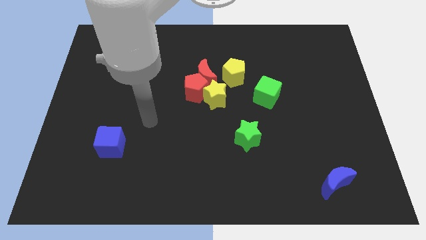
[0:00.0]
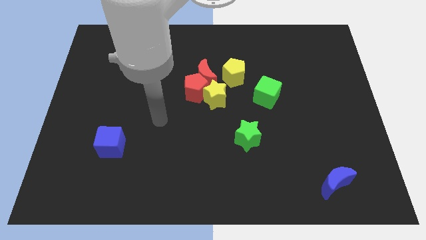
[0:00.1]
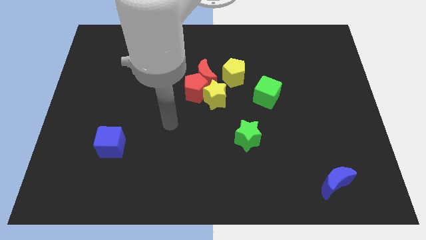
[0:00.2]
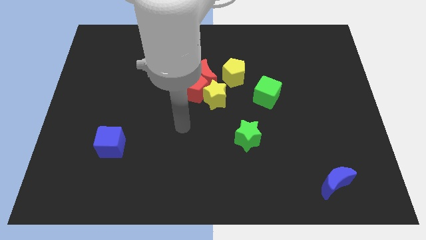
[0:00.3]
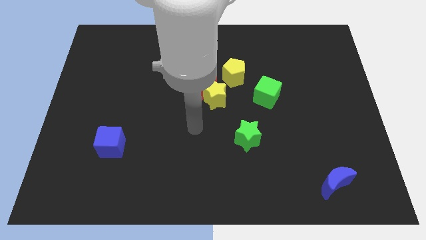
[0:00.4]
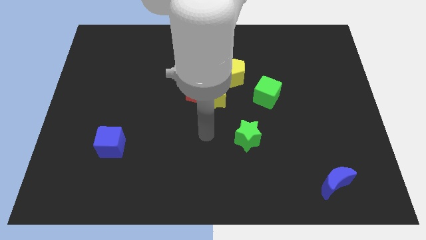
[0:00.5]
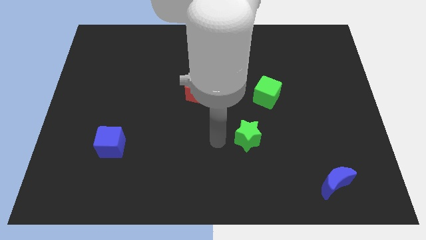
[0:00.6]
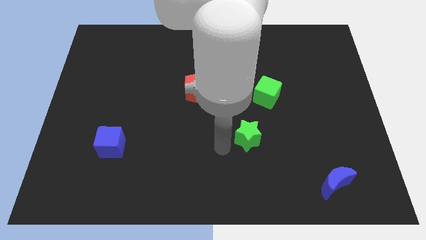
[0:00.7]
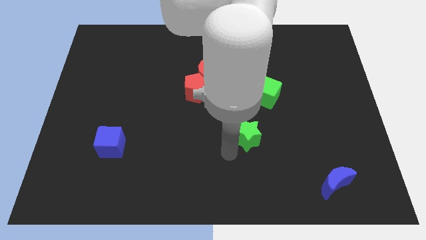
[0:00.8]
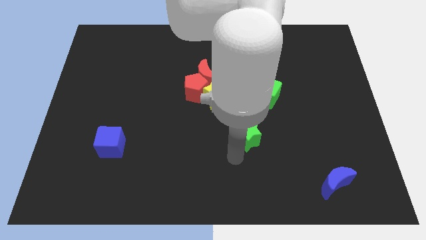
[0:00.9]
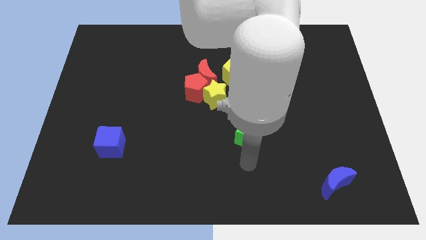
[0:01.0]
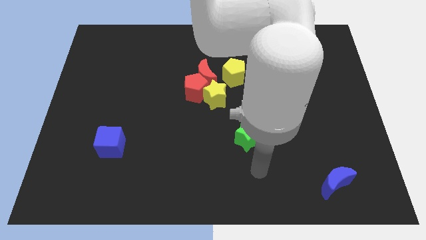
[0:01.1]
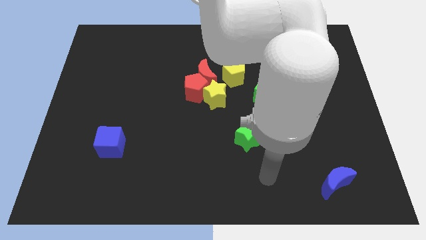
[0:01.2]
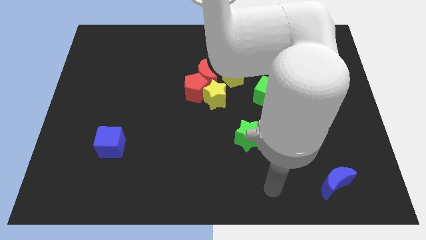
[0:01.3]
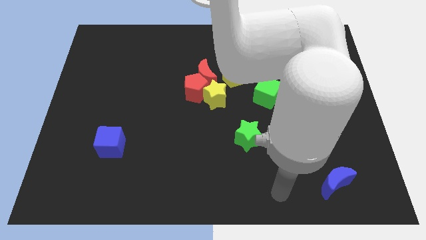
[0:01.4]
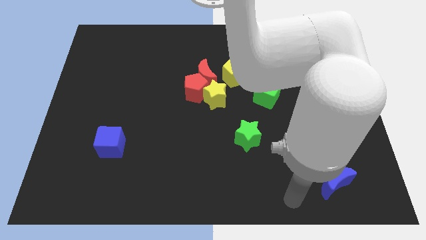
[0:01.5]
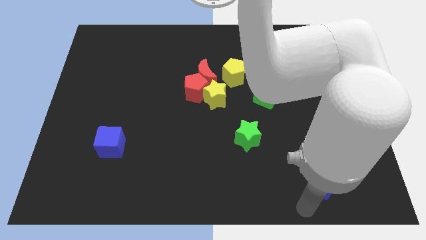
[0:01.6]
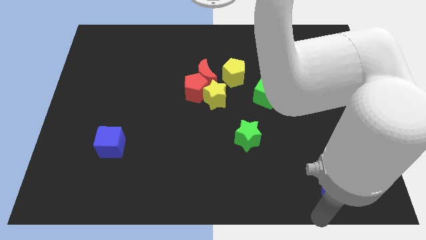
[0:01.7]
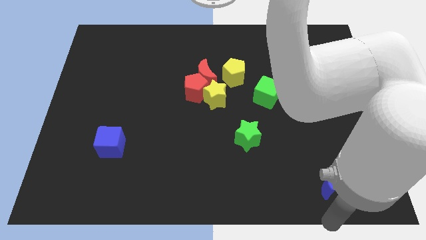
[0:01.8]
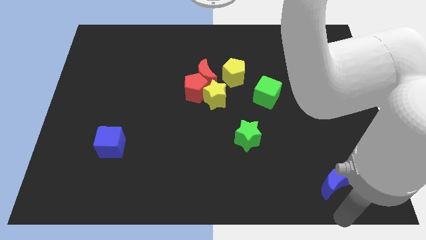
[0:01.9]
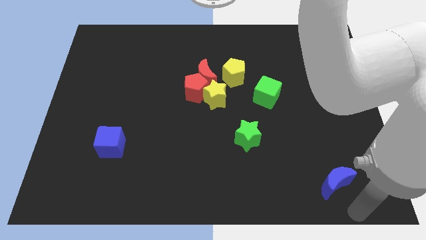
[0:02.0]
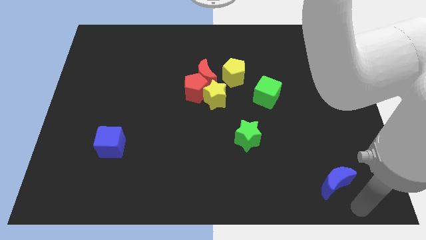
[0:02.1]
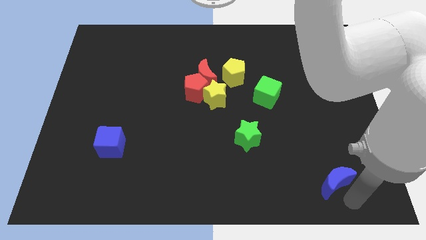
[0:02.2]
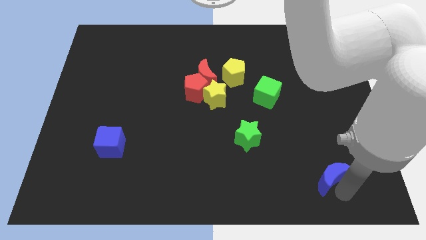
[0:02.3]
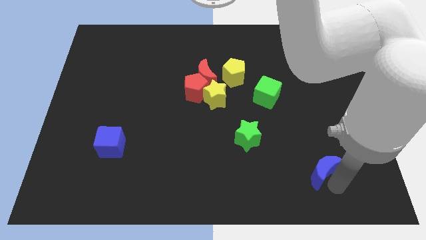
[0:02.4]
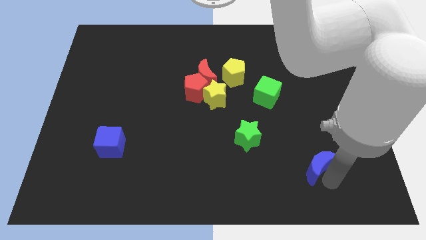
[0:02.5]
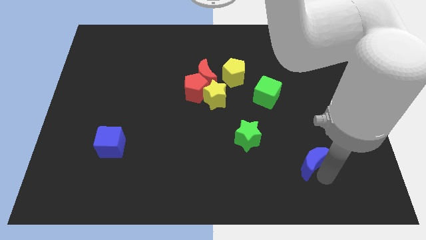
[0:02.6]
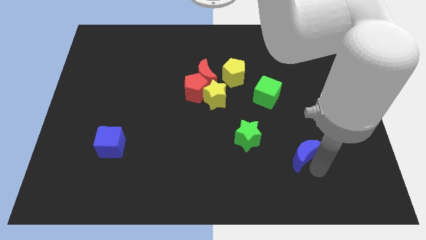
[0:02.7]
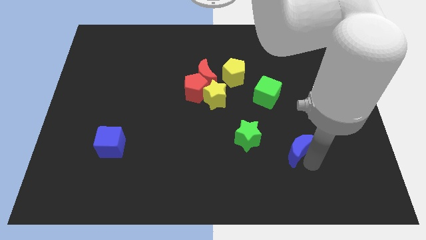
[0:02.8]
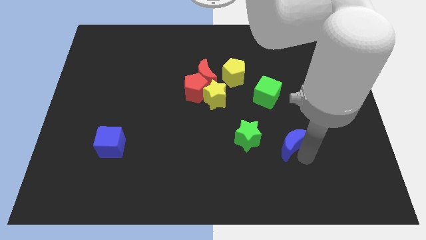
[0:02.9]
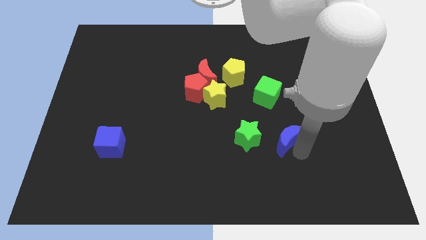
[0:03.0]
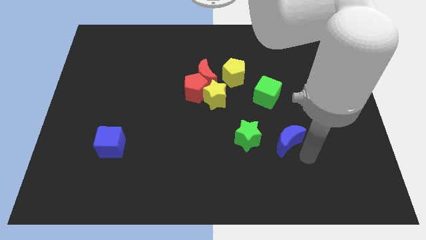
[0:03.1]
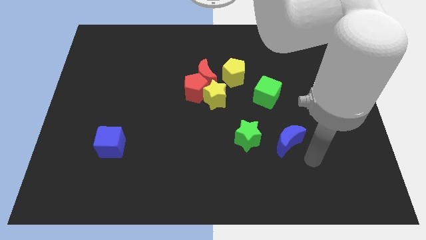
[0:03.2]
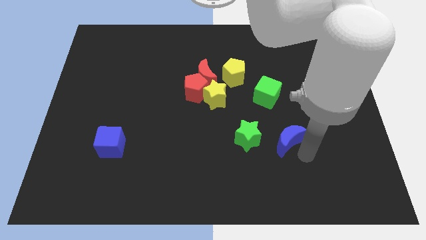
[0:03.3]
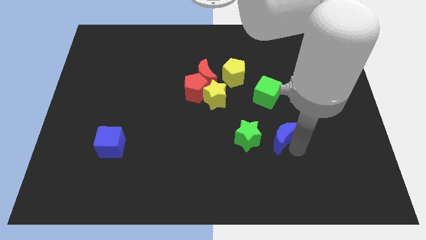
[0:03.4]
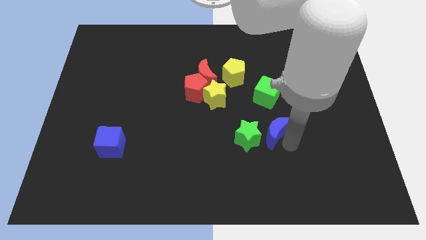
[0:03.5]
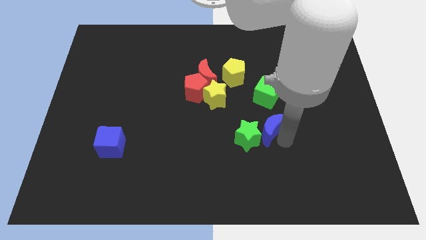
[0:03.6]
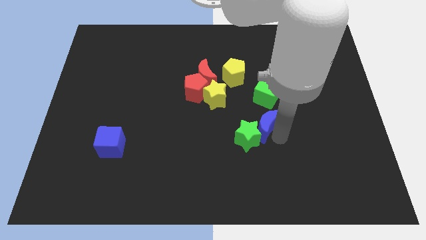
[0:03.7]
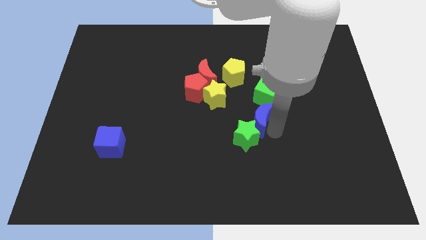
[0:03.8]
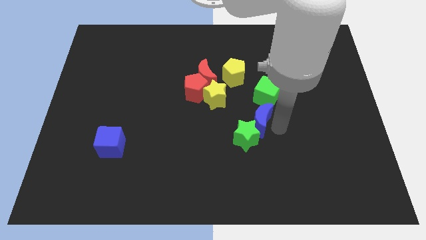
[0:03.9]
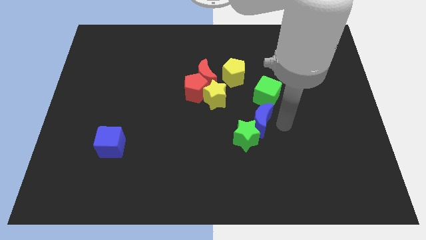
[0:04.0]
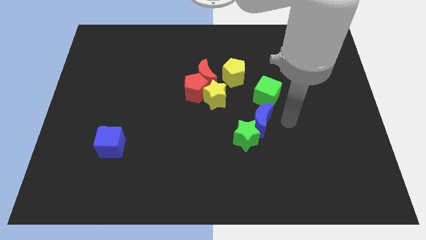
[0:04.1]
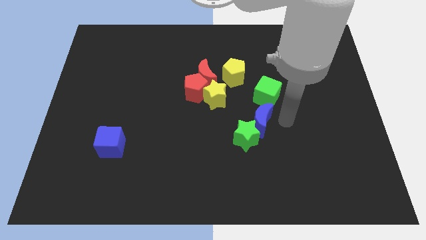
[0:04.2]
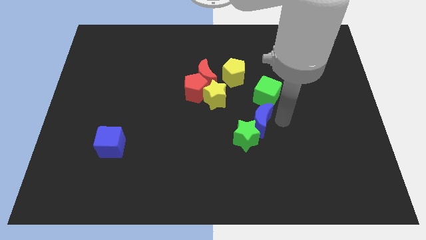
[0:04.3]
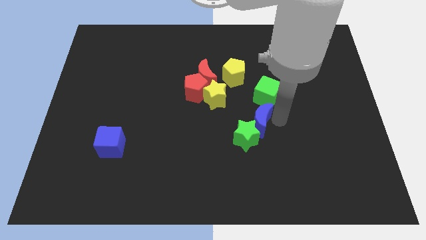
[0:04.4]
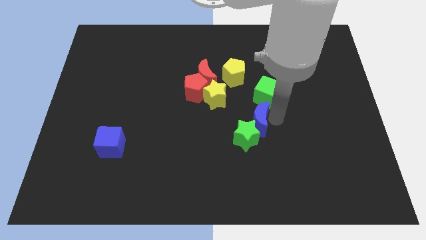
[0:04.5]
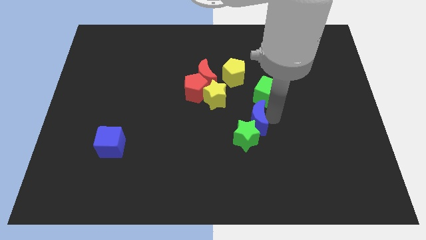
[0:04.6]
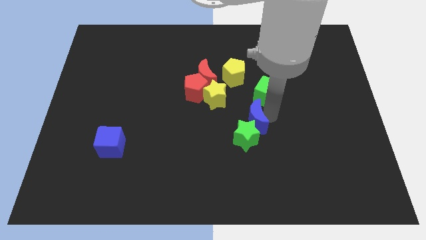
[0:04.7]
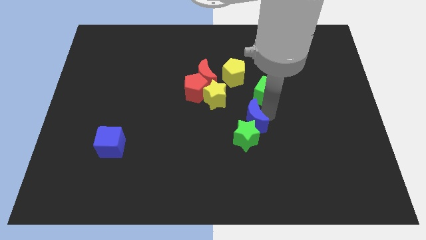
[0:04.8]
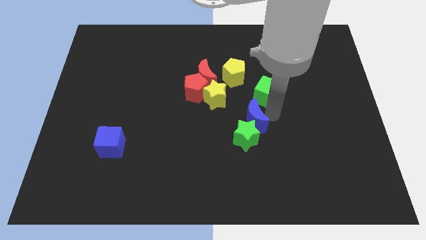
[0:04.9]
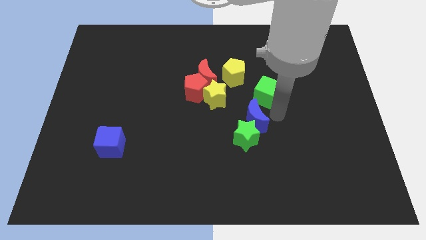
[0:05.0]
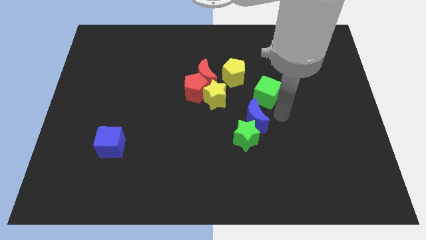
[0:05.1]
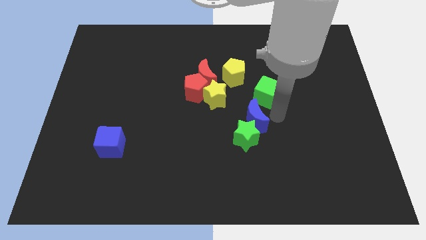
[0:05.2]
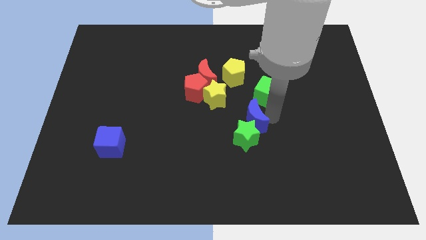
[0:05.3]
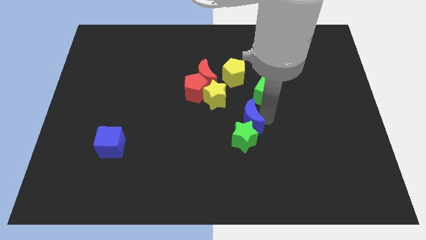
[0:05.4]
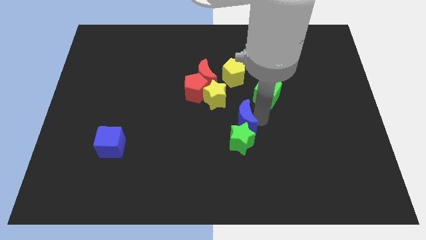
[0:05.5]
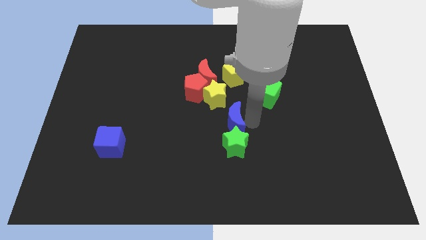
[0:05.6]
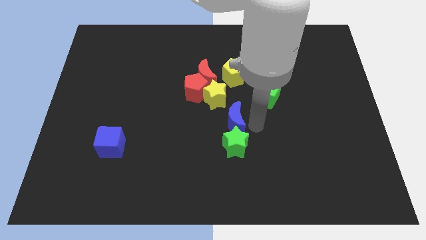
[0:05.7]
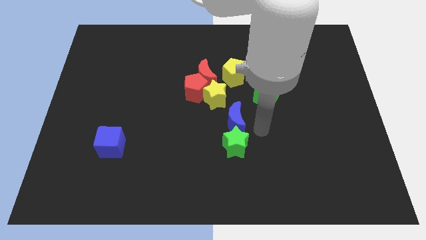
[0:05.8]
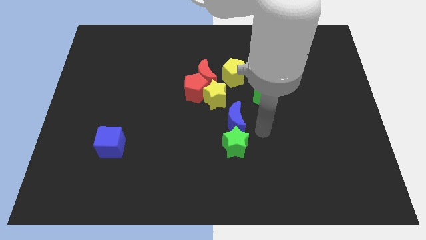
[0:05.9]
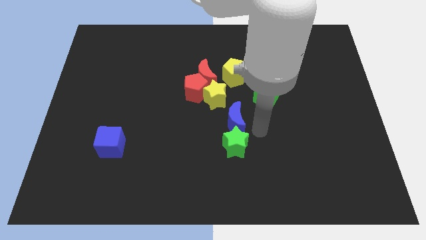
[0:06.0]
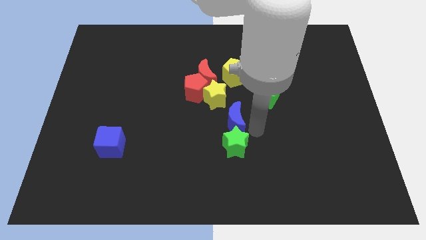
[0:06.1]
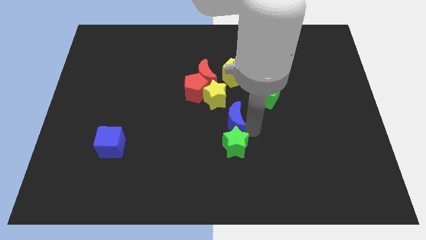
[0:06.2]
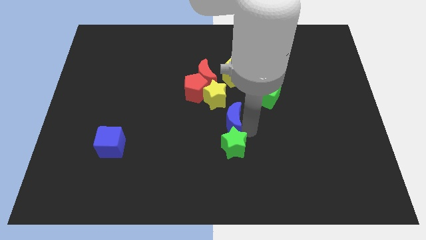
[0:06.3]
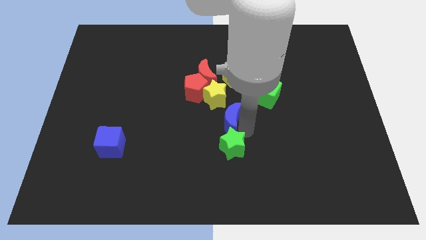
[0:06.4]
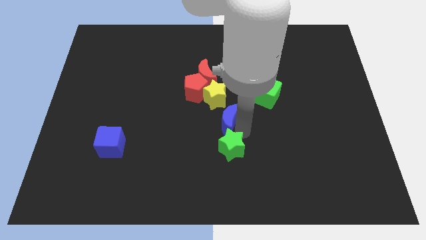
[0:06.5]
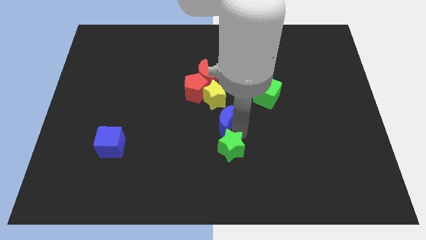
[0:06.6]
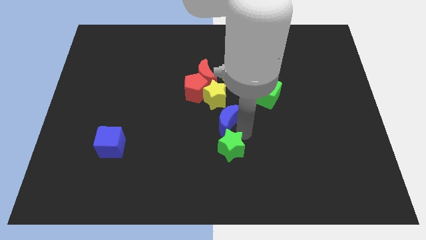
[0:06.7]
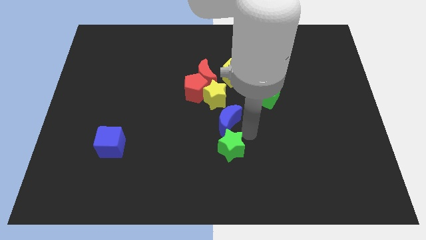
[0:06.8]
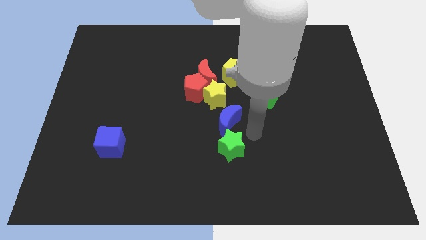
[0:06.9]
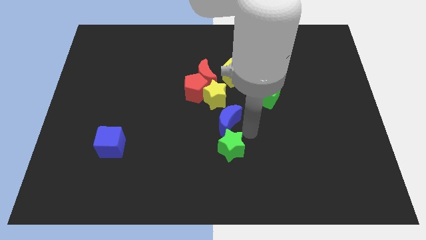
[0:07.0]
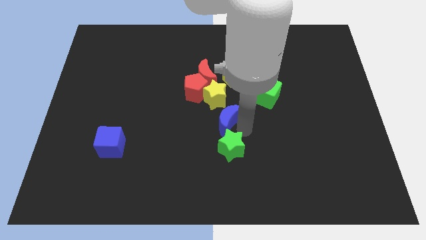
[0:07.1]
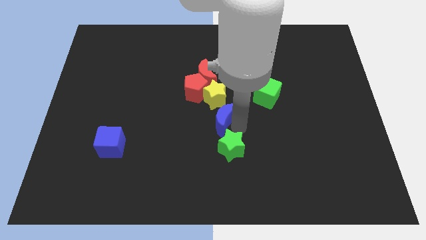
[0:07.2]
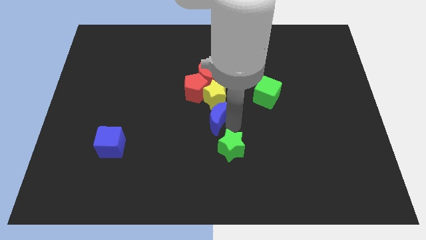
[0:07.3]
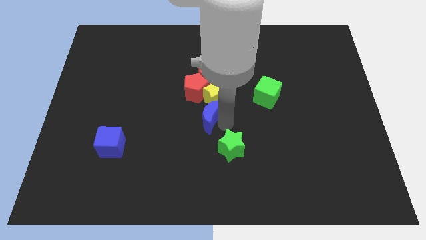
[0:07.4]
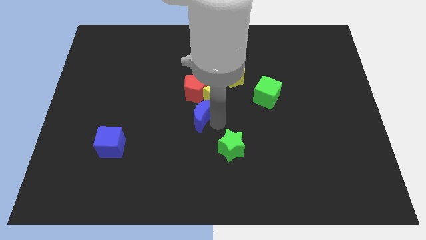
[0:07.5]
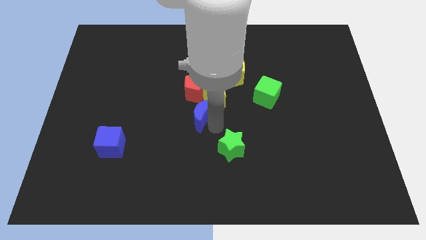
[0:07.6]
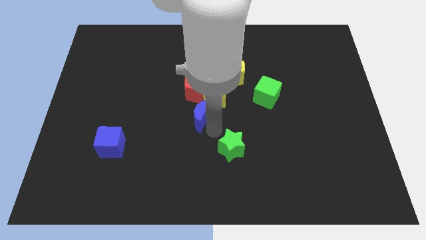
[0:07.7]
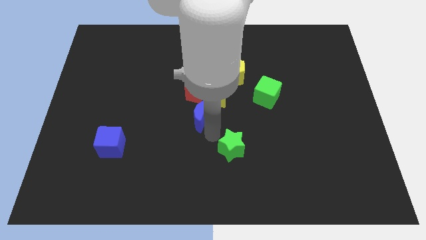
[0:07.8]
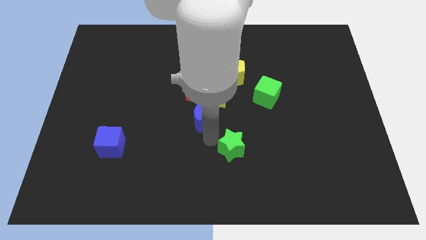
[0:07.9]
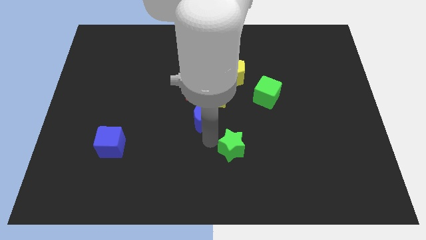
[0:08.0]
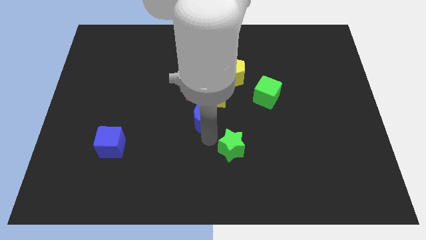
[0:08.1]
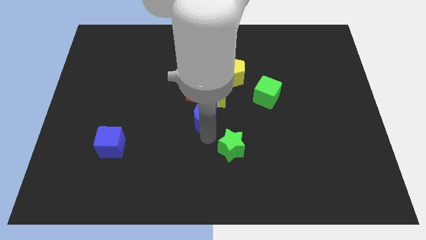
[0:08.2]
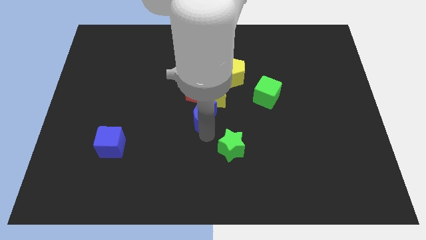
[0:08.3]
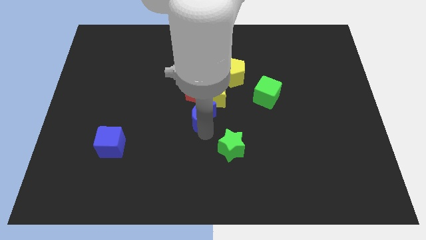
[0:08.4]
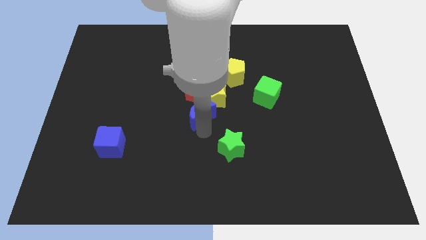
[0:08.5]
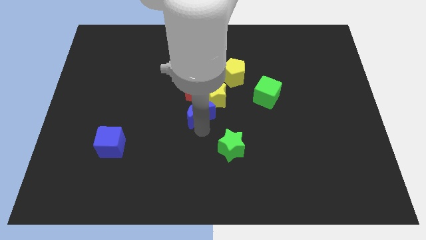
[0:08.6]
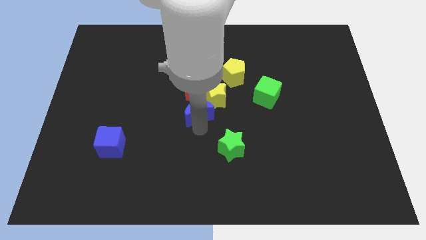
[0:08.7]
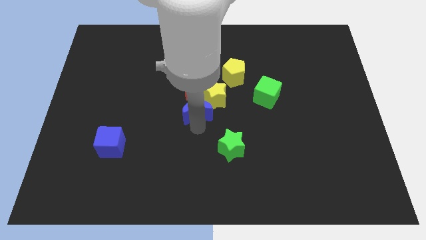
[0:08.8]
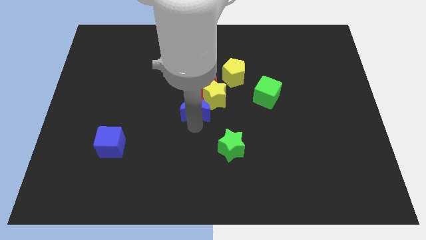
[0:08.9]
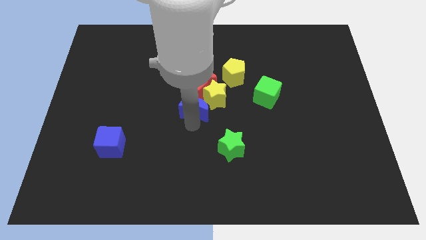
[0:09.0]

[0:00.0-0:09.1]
push the blue moon next to the red pentagon
